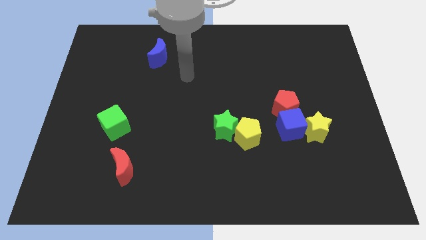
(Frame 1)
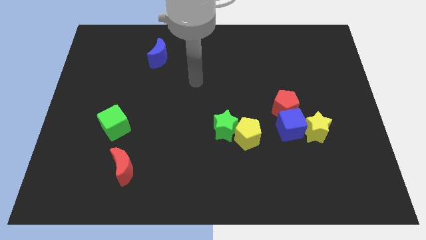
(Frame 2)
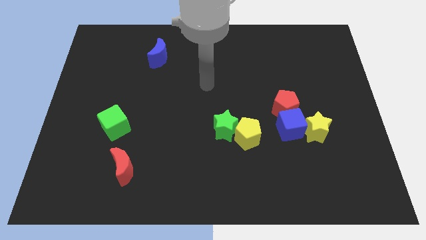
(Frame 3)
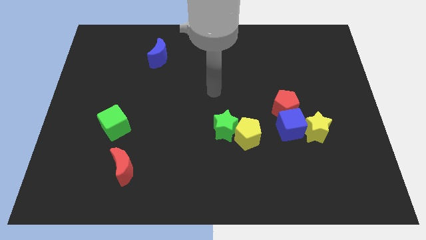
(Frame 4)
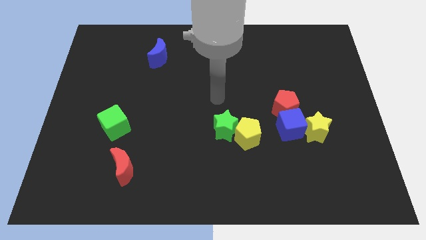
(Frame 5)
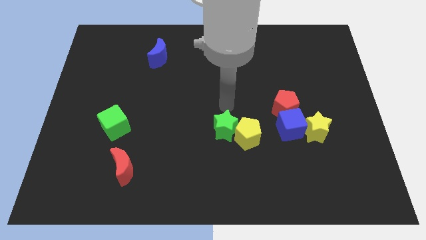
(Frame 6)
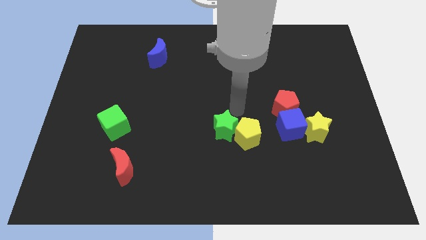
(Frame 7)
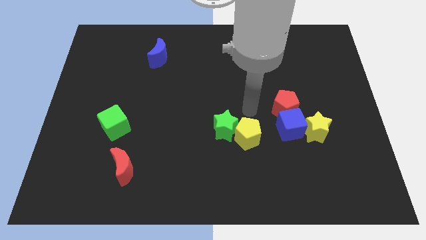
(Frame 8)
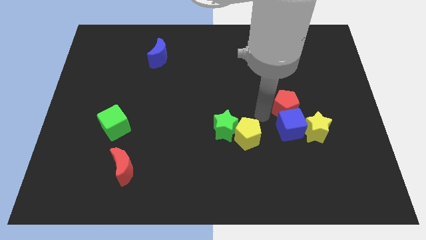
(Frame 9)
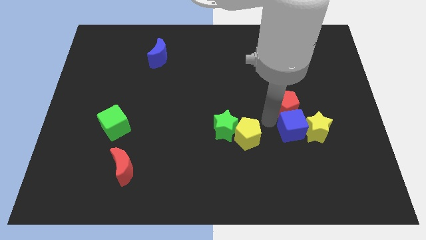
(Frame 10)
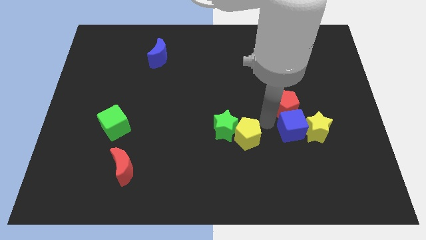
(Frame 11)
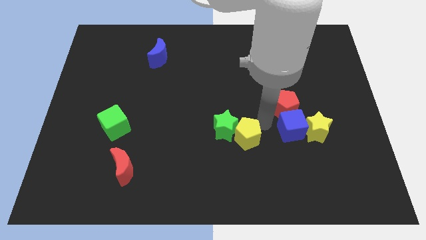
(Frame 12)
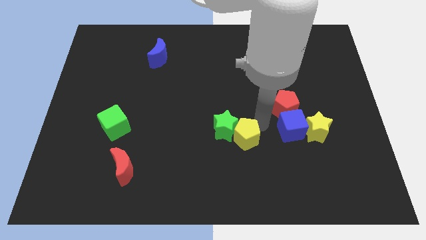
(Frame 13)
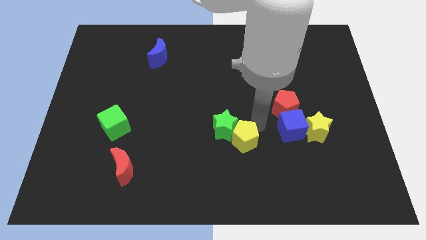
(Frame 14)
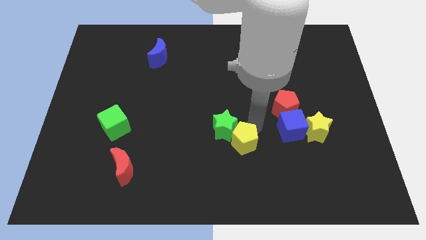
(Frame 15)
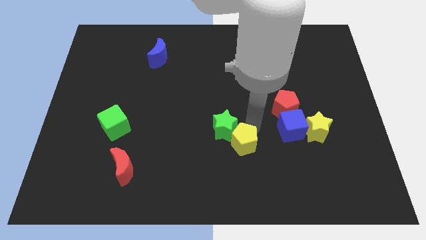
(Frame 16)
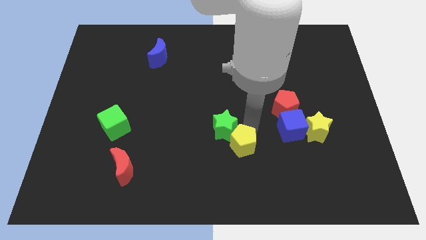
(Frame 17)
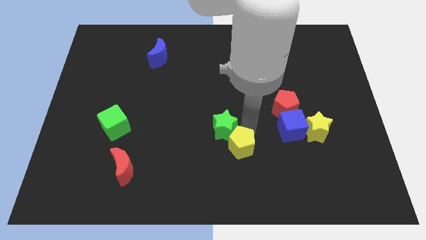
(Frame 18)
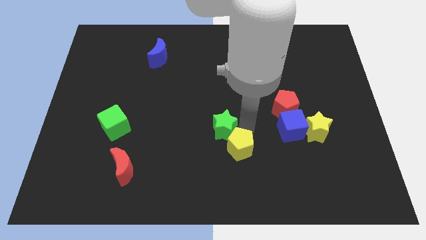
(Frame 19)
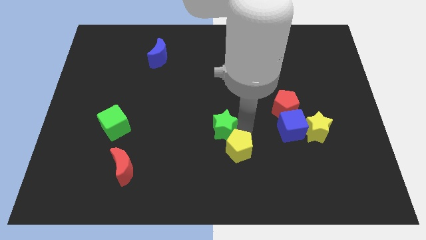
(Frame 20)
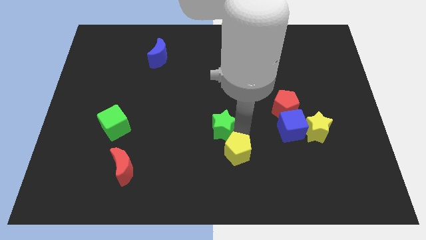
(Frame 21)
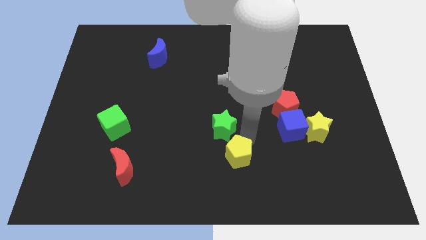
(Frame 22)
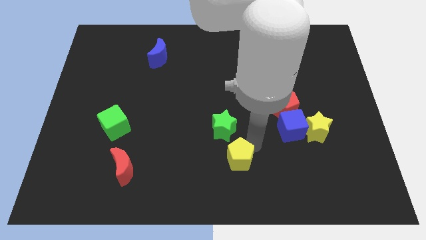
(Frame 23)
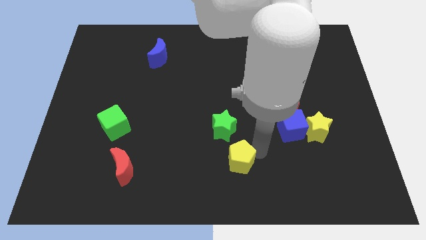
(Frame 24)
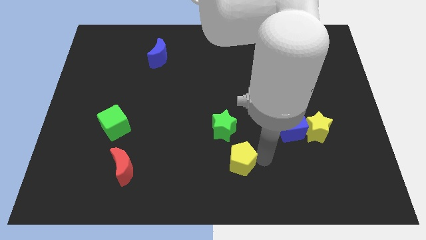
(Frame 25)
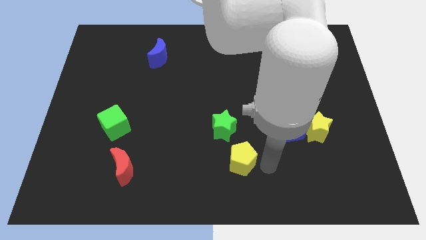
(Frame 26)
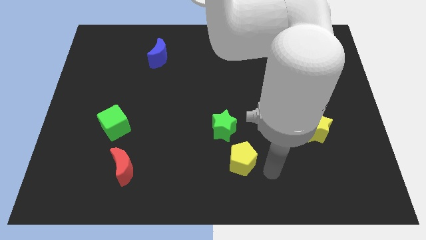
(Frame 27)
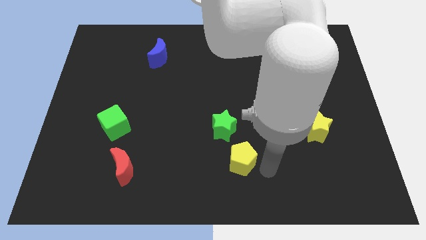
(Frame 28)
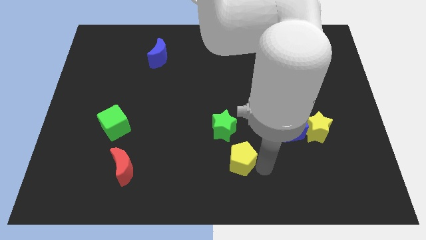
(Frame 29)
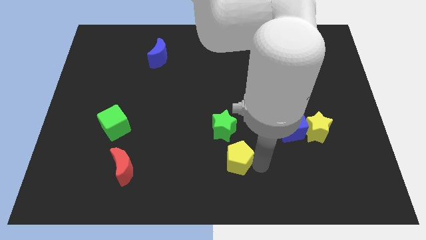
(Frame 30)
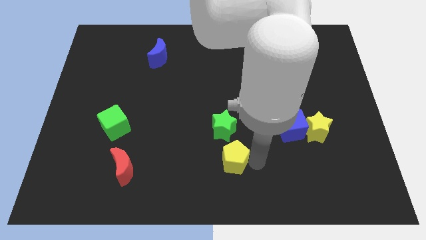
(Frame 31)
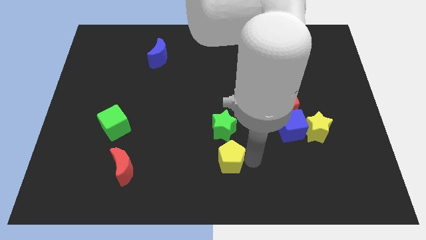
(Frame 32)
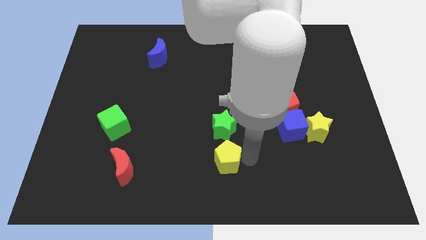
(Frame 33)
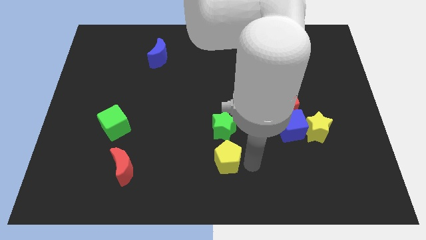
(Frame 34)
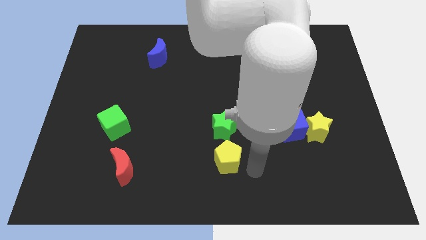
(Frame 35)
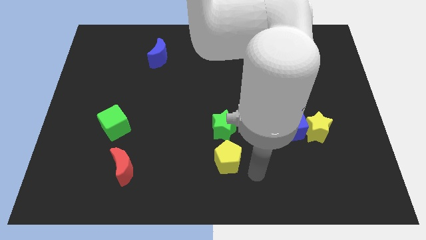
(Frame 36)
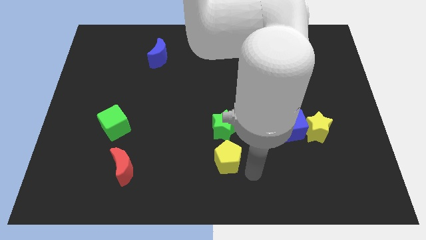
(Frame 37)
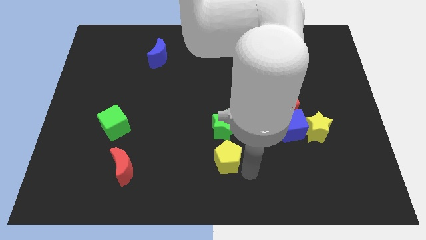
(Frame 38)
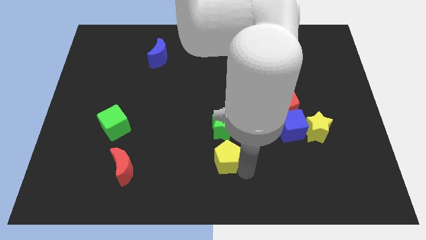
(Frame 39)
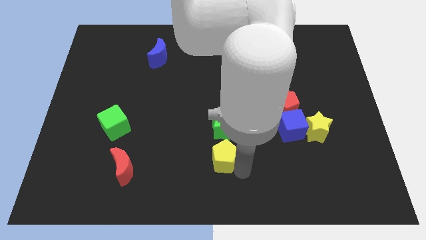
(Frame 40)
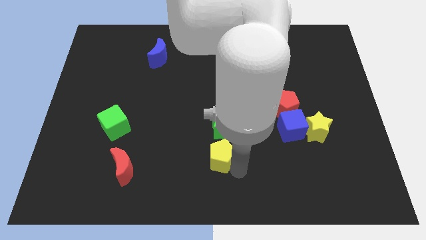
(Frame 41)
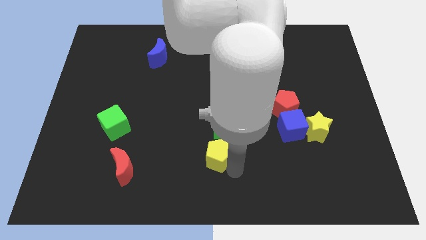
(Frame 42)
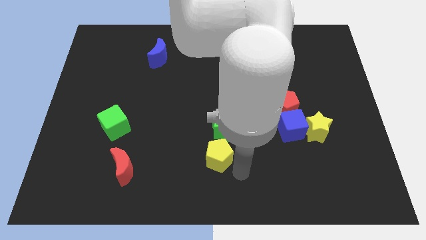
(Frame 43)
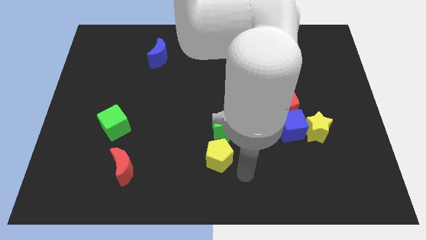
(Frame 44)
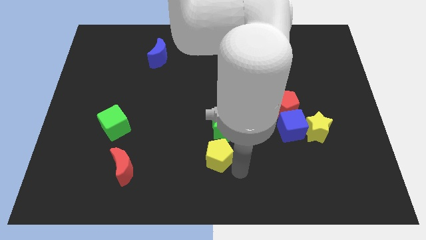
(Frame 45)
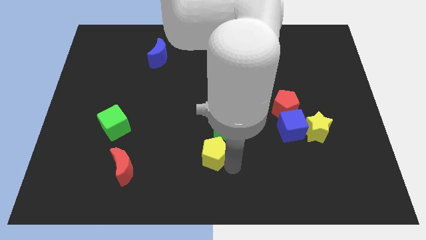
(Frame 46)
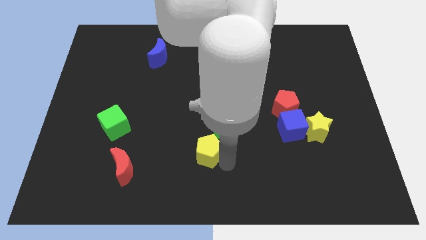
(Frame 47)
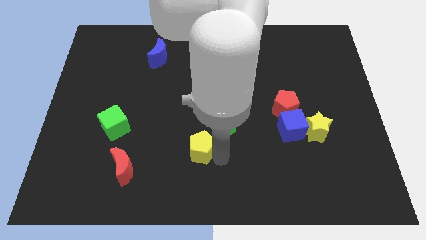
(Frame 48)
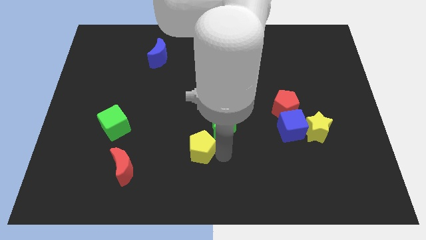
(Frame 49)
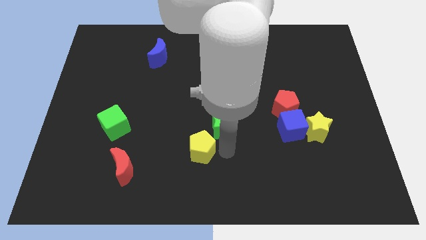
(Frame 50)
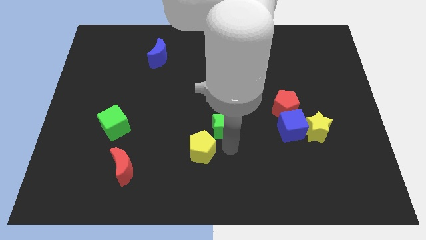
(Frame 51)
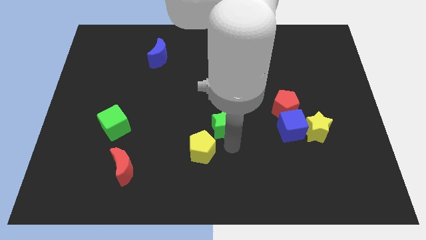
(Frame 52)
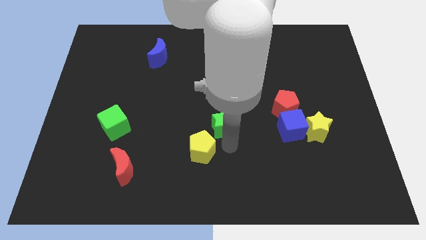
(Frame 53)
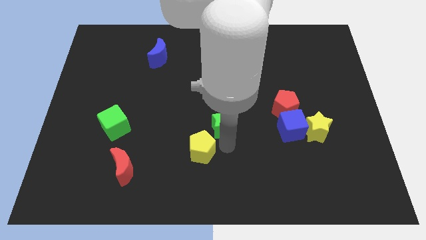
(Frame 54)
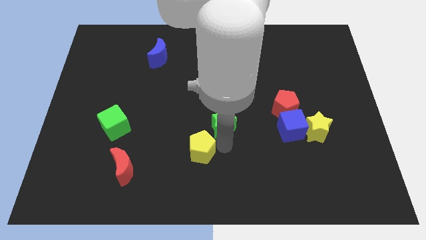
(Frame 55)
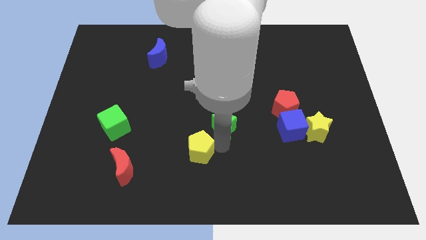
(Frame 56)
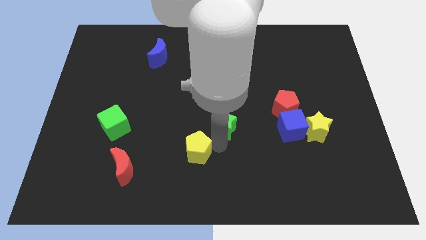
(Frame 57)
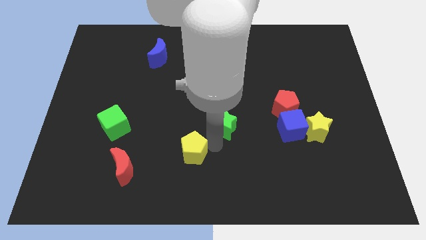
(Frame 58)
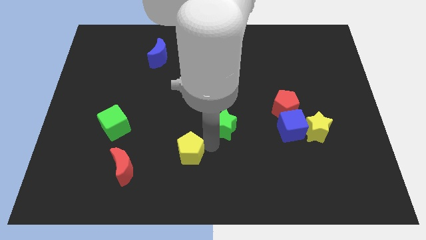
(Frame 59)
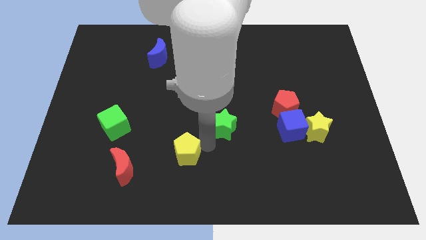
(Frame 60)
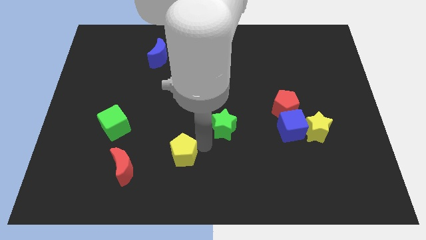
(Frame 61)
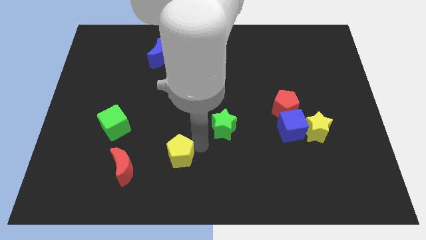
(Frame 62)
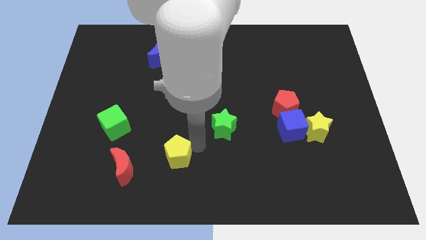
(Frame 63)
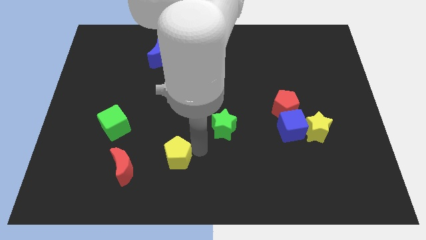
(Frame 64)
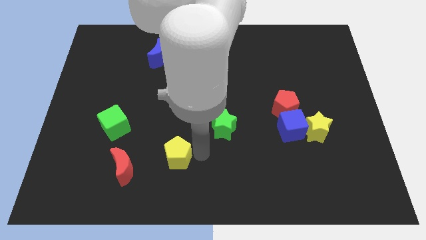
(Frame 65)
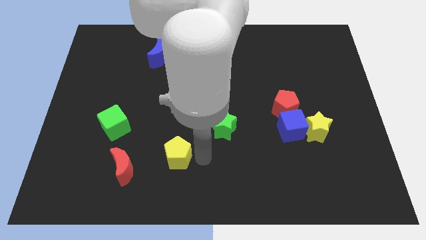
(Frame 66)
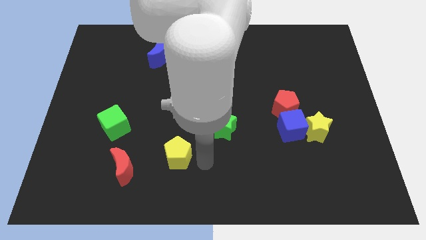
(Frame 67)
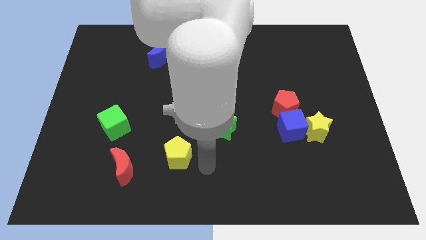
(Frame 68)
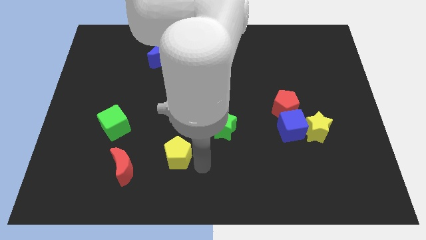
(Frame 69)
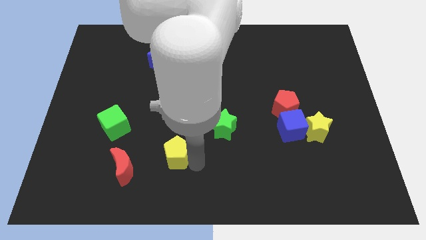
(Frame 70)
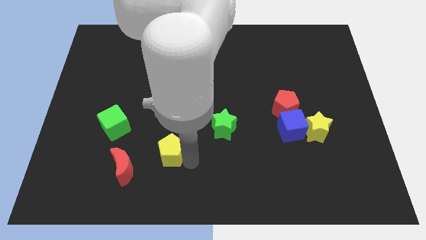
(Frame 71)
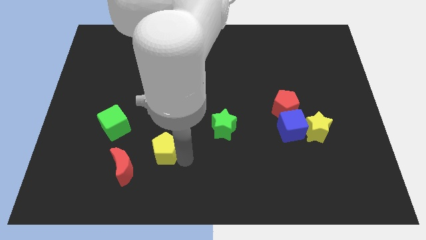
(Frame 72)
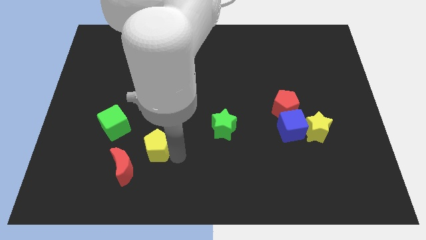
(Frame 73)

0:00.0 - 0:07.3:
slide the yellow pentagon to the bottom right of the green cube
